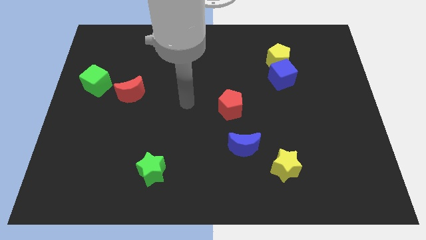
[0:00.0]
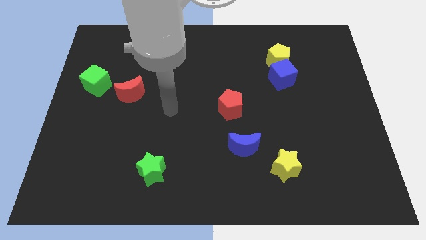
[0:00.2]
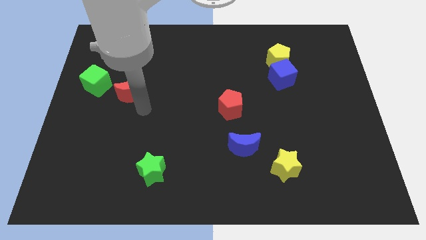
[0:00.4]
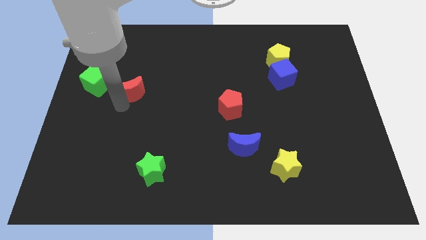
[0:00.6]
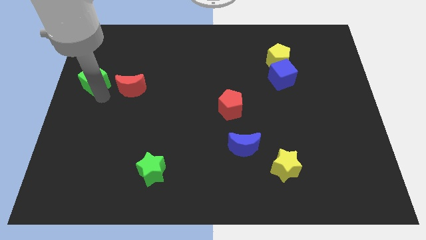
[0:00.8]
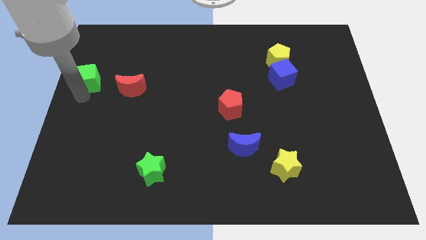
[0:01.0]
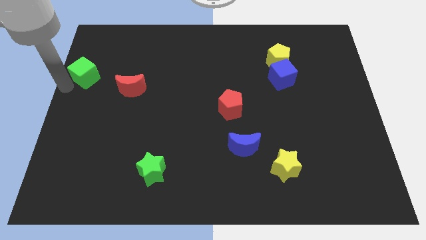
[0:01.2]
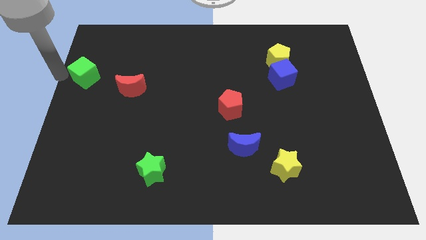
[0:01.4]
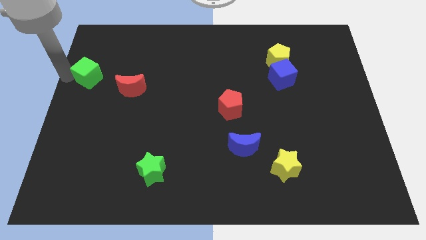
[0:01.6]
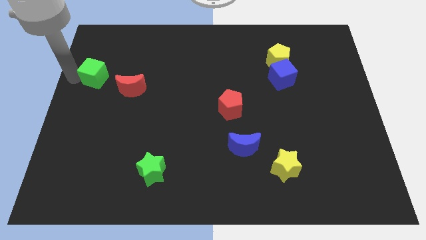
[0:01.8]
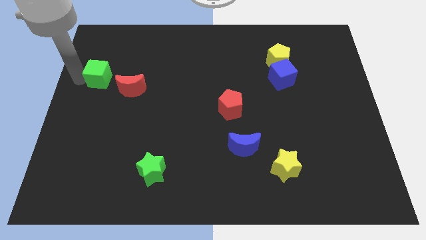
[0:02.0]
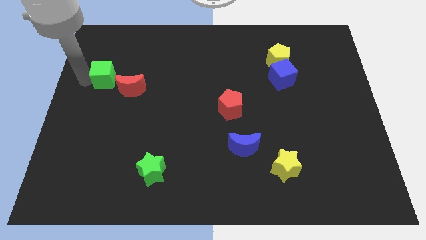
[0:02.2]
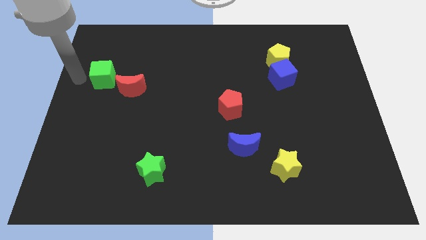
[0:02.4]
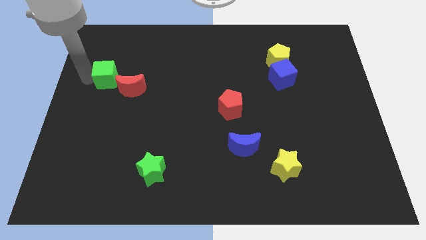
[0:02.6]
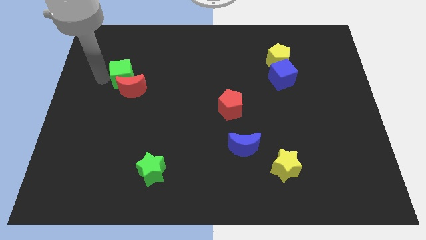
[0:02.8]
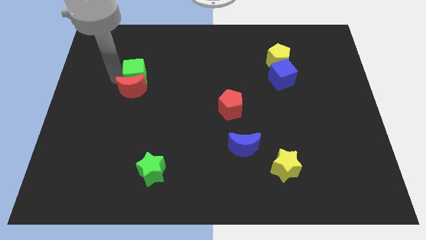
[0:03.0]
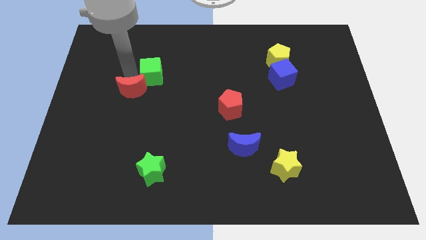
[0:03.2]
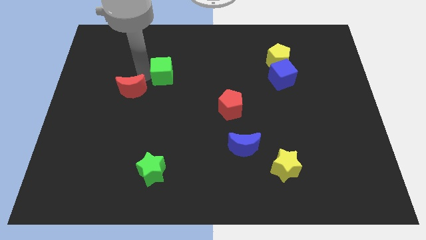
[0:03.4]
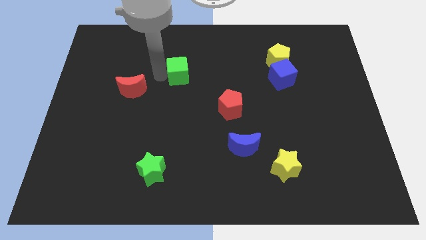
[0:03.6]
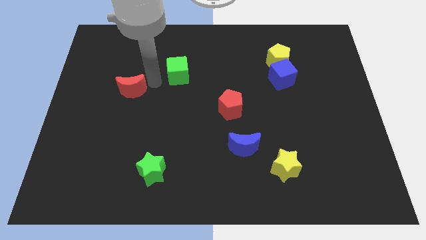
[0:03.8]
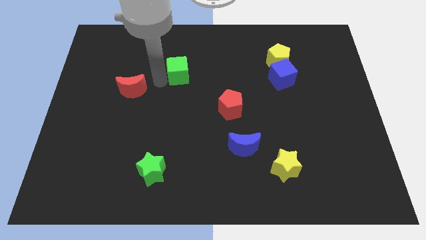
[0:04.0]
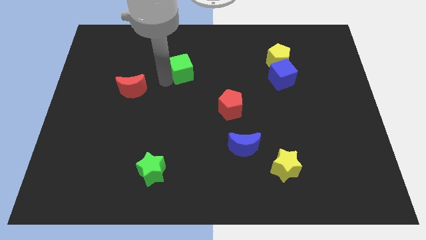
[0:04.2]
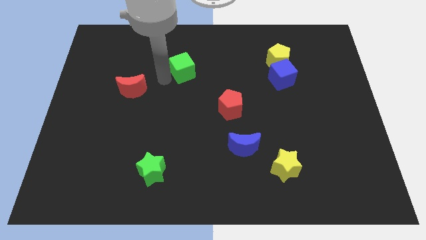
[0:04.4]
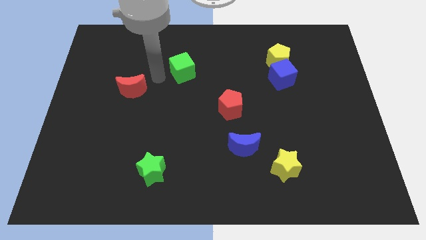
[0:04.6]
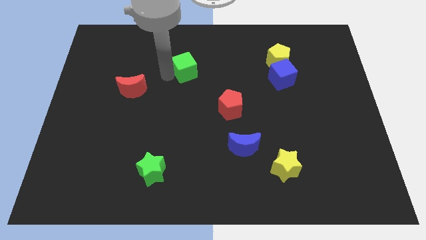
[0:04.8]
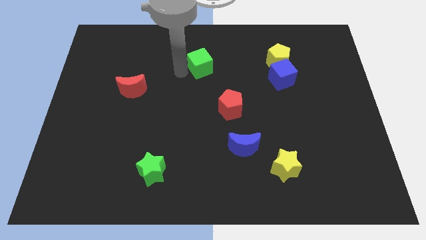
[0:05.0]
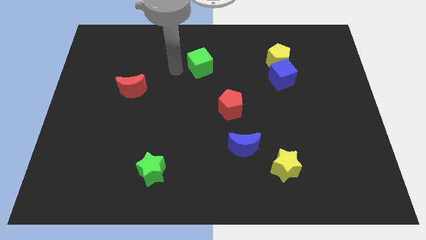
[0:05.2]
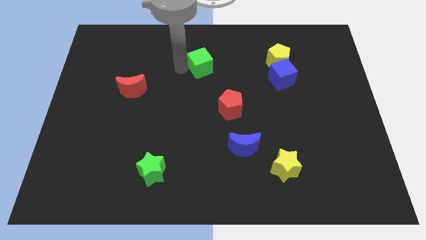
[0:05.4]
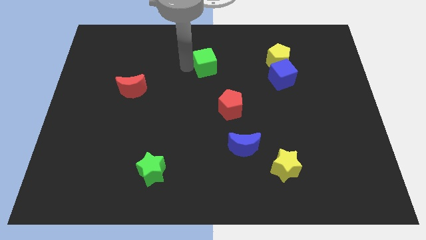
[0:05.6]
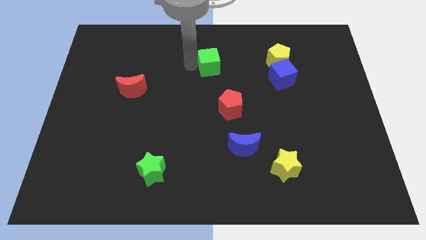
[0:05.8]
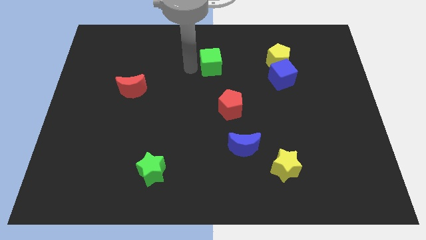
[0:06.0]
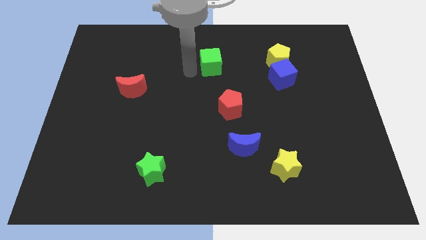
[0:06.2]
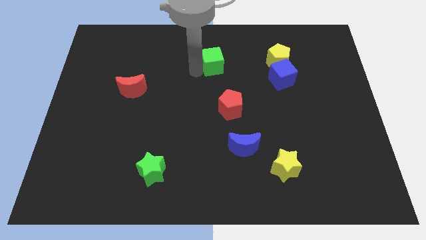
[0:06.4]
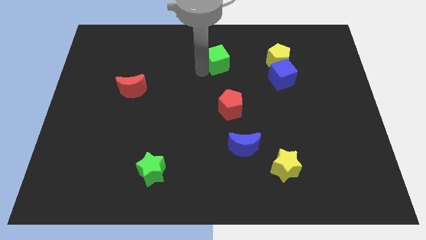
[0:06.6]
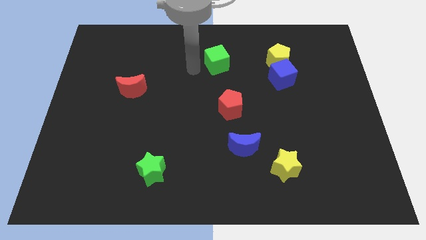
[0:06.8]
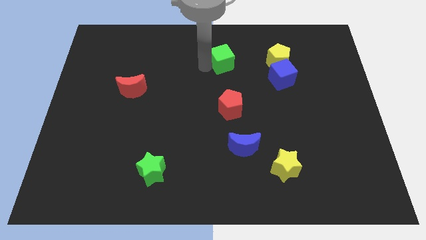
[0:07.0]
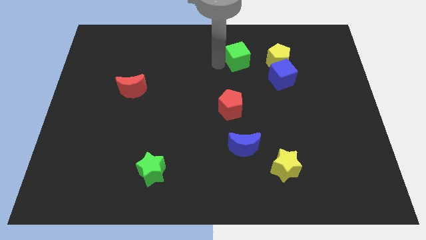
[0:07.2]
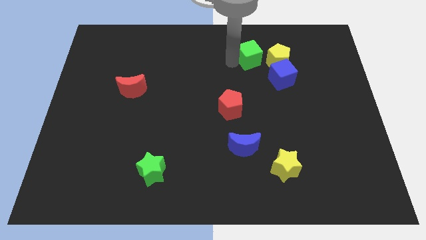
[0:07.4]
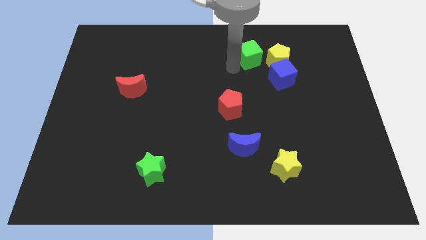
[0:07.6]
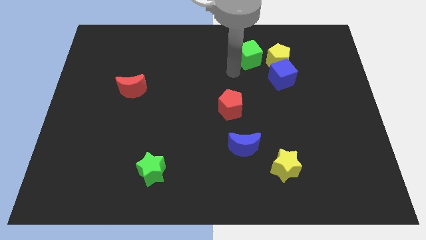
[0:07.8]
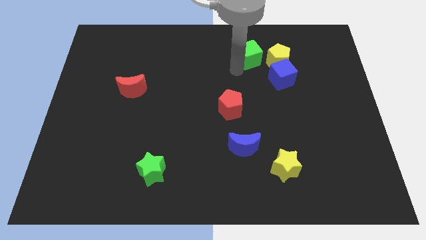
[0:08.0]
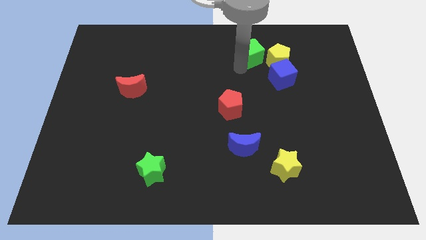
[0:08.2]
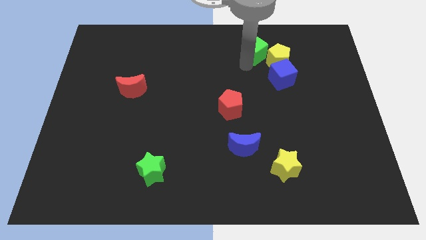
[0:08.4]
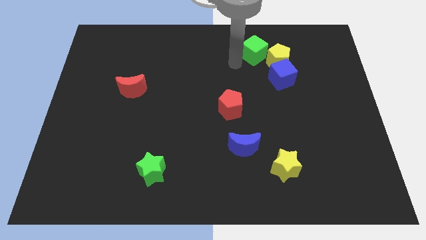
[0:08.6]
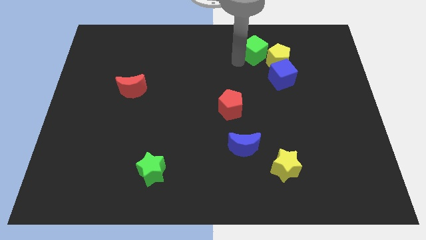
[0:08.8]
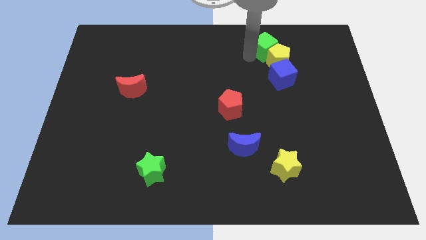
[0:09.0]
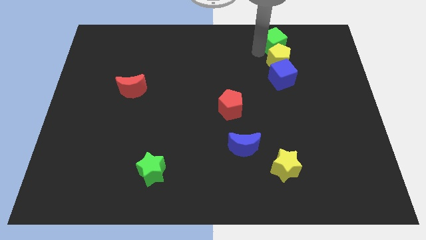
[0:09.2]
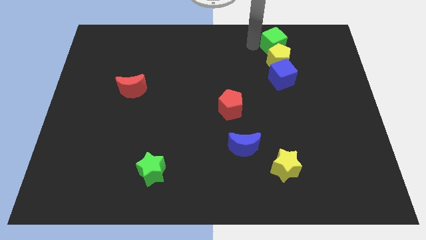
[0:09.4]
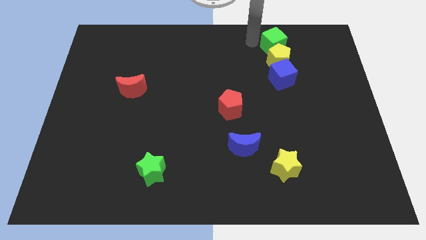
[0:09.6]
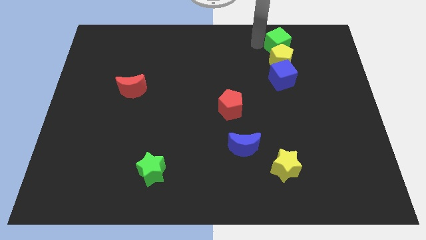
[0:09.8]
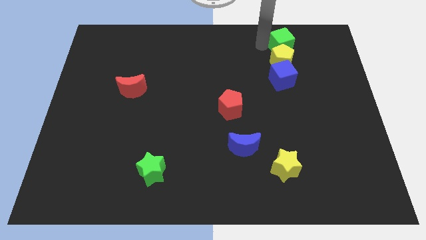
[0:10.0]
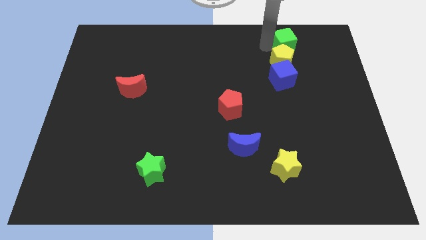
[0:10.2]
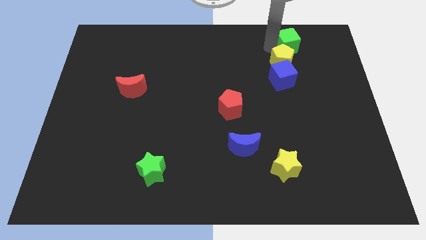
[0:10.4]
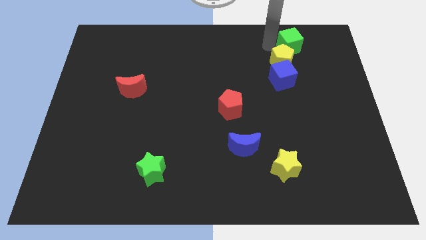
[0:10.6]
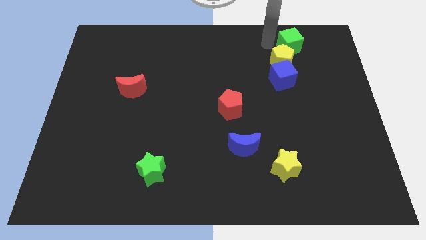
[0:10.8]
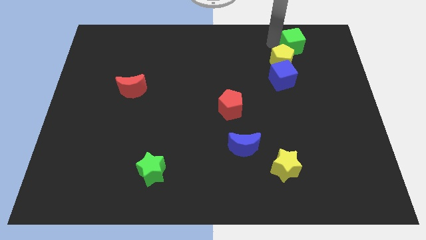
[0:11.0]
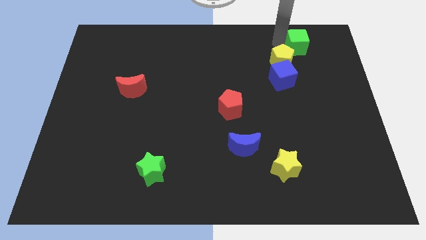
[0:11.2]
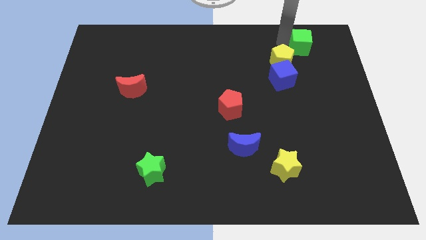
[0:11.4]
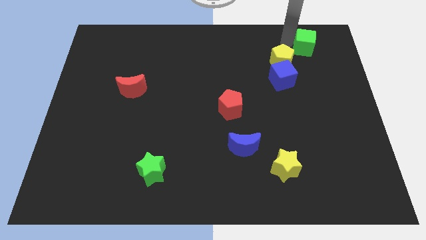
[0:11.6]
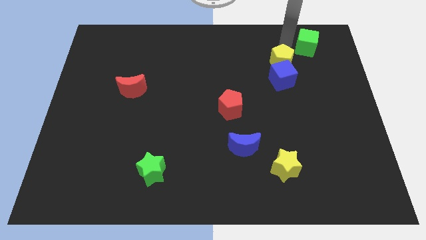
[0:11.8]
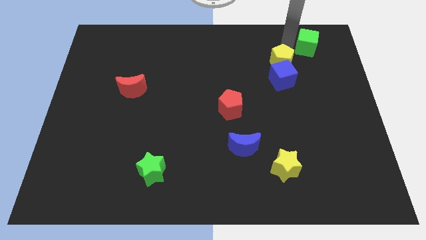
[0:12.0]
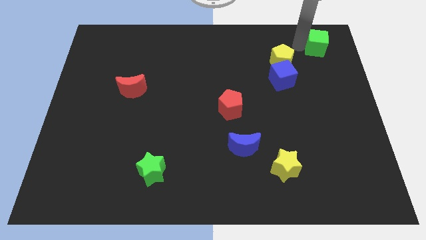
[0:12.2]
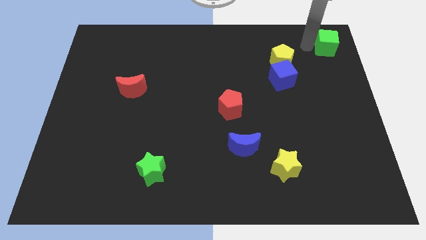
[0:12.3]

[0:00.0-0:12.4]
move the green cube to the top right of the board
